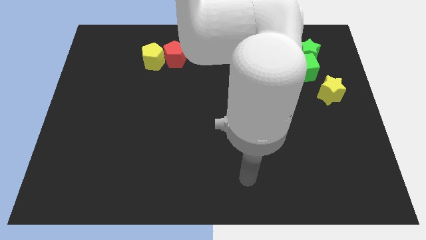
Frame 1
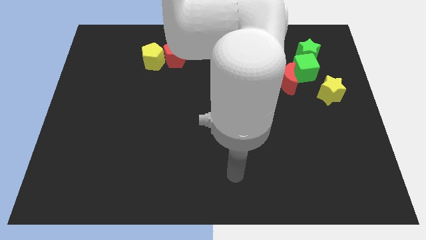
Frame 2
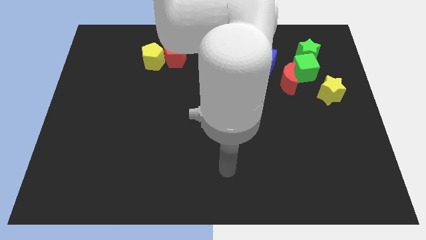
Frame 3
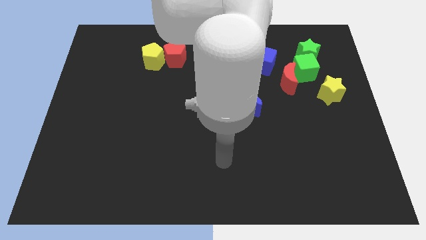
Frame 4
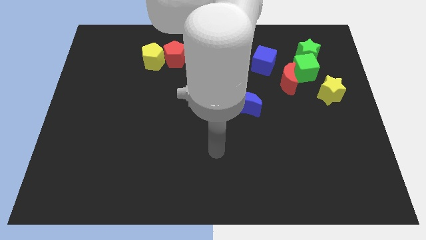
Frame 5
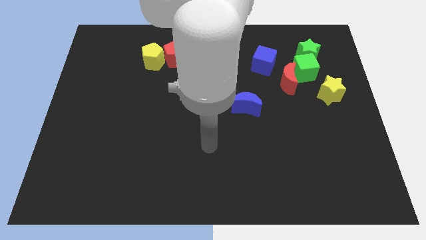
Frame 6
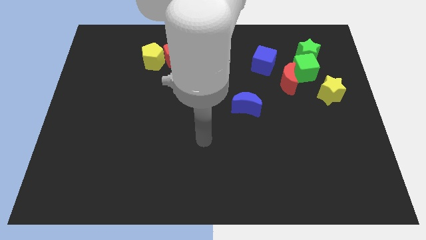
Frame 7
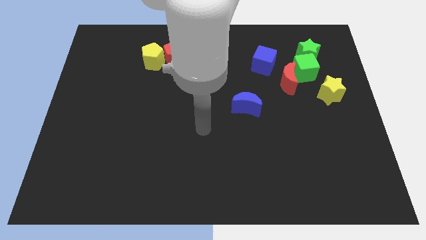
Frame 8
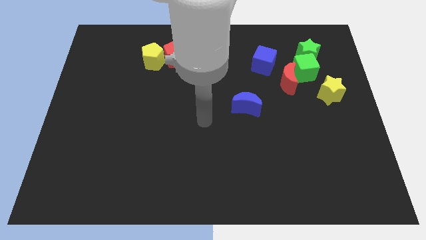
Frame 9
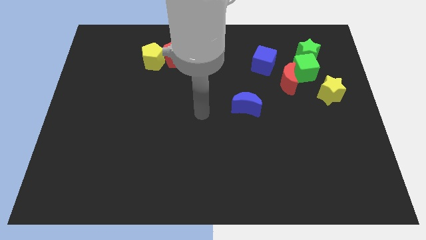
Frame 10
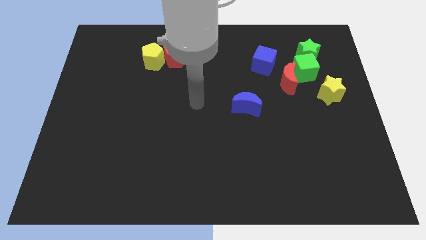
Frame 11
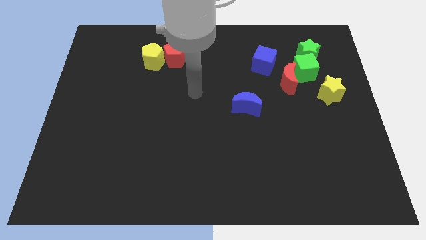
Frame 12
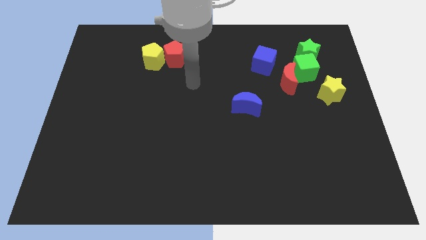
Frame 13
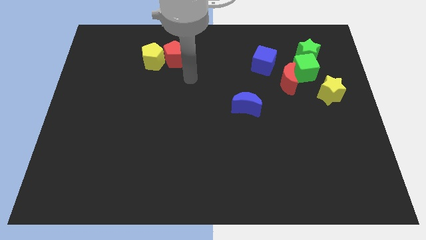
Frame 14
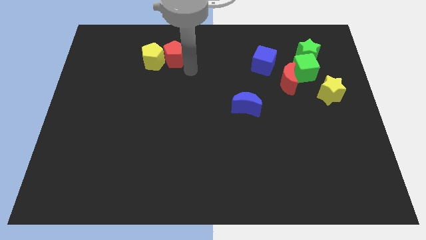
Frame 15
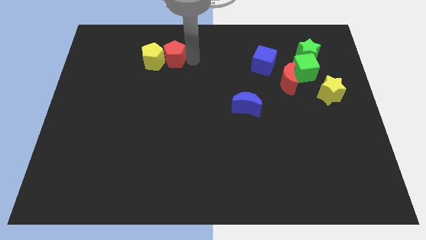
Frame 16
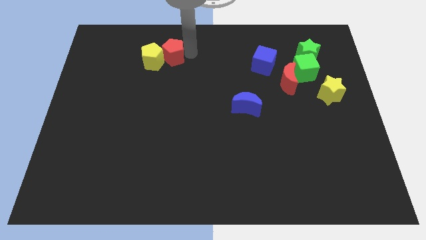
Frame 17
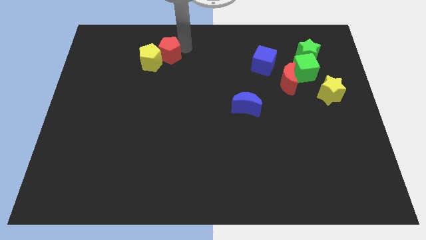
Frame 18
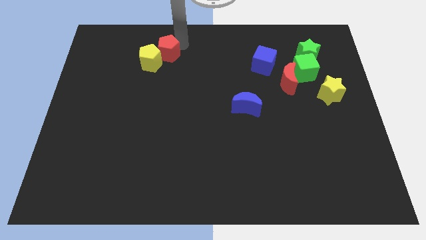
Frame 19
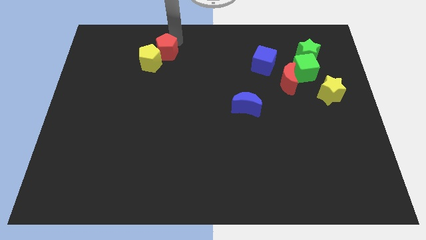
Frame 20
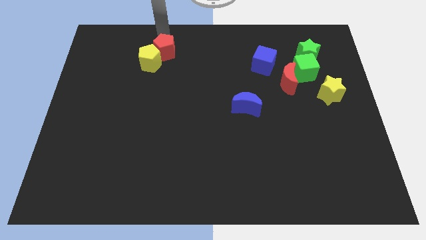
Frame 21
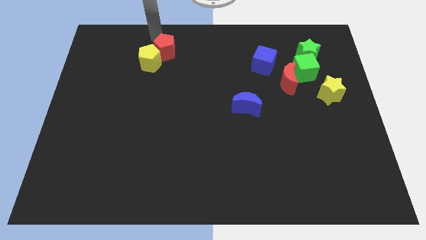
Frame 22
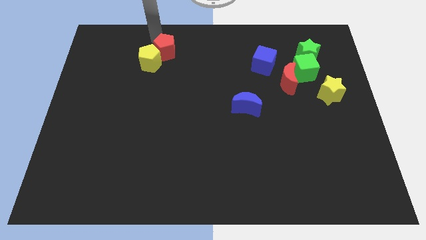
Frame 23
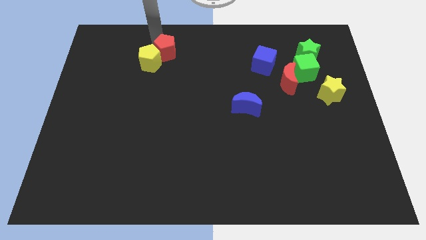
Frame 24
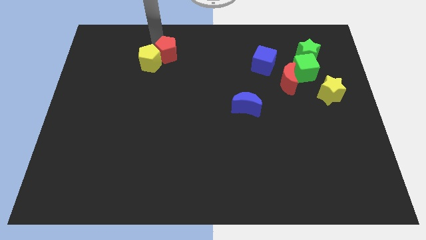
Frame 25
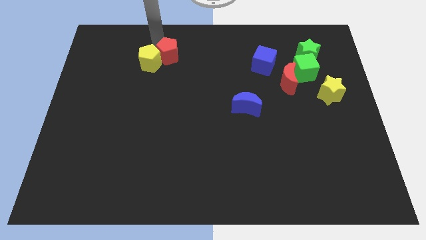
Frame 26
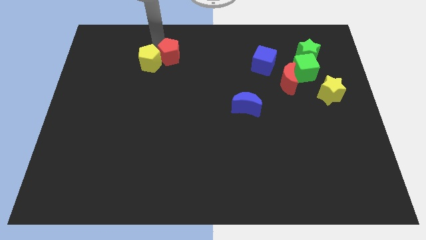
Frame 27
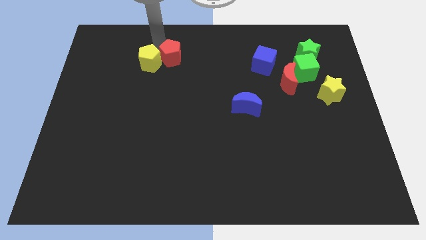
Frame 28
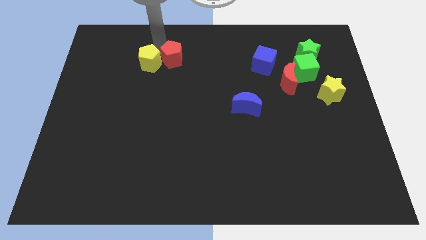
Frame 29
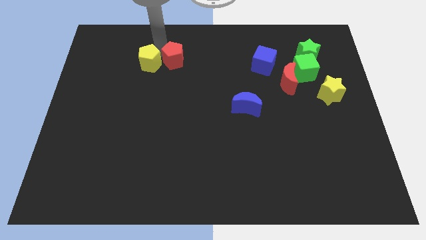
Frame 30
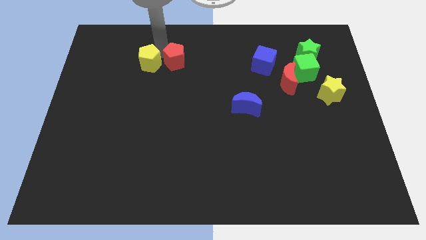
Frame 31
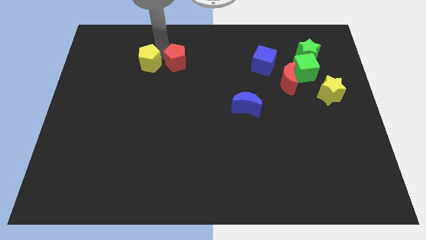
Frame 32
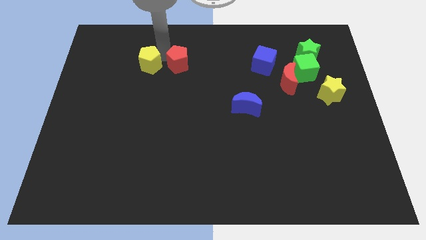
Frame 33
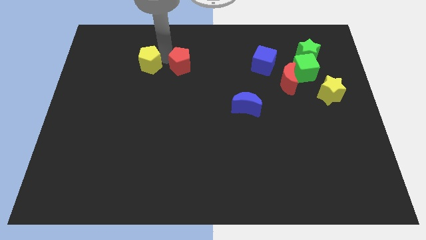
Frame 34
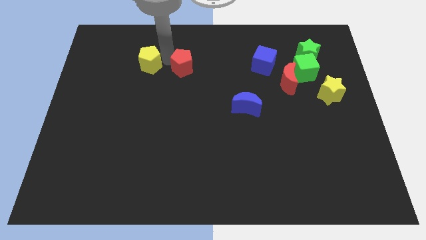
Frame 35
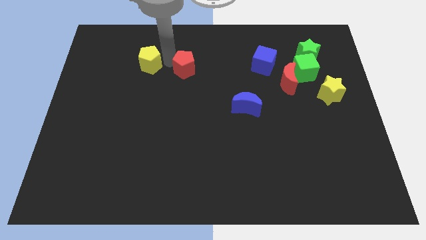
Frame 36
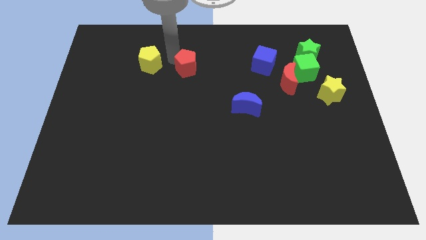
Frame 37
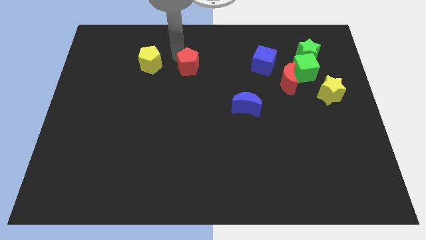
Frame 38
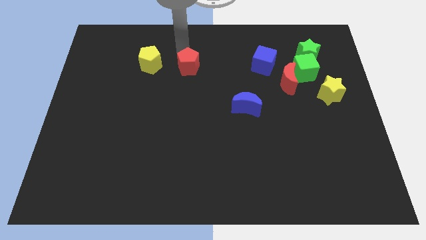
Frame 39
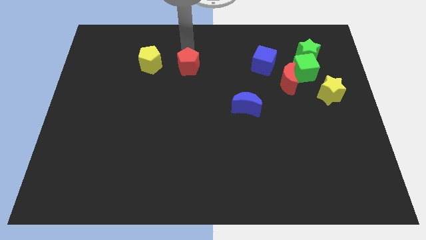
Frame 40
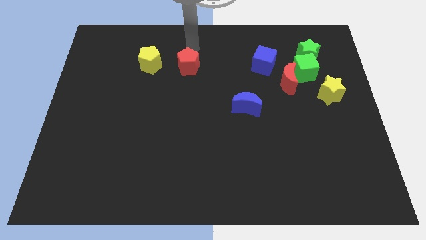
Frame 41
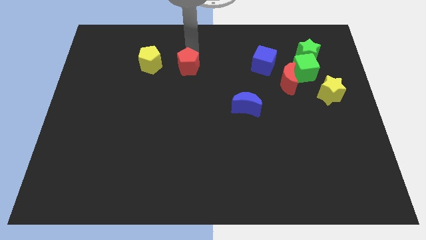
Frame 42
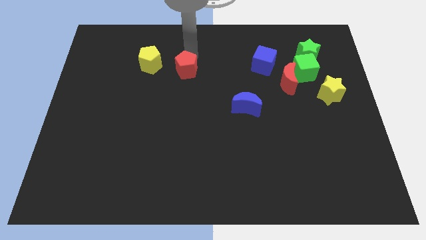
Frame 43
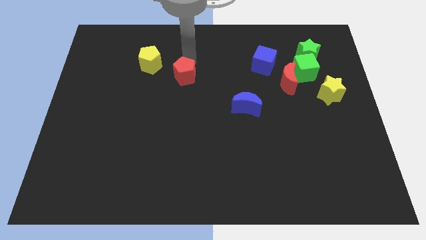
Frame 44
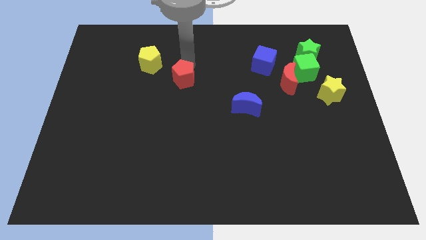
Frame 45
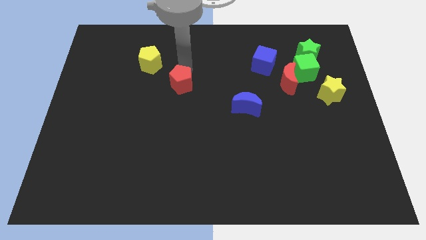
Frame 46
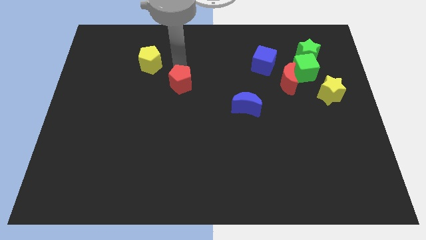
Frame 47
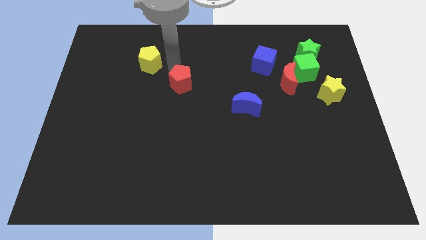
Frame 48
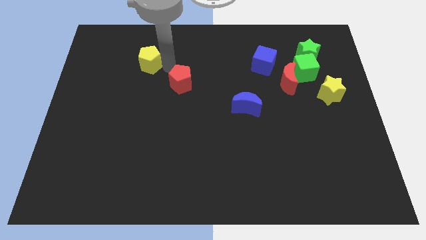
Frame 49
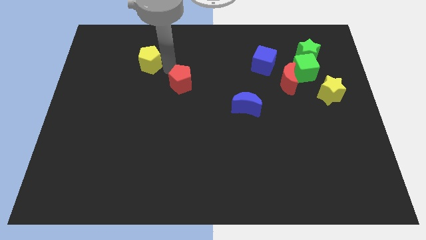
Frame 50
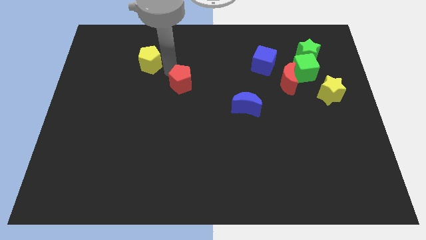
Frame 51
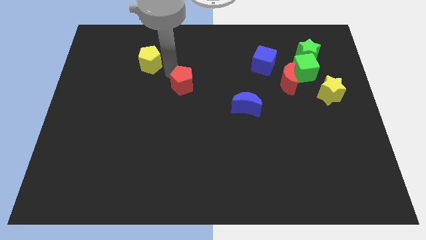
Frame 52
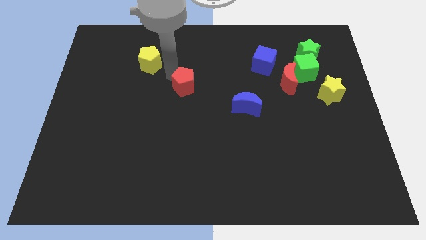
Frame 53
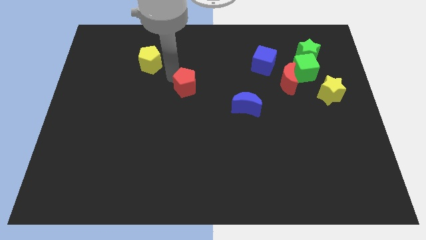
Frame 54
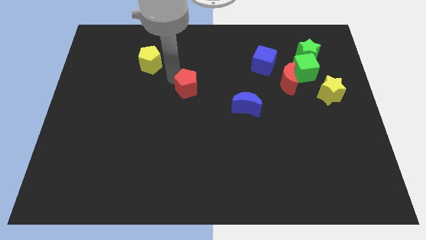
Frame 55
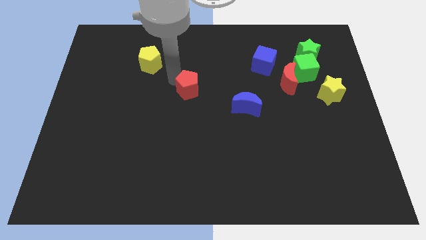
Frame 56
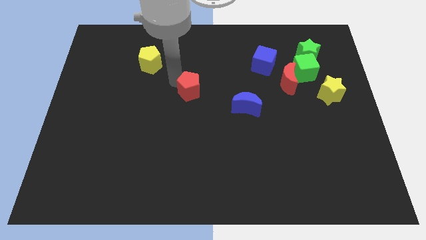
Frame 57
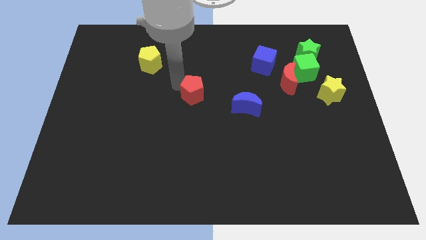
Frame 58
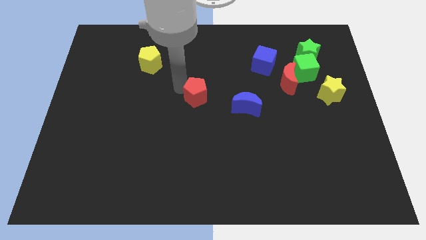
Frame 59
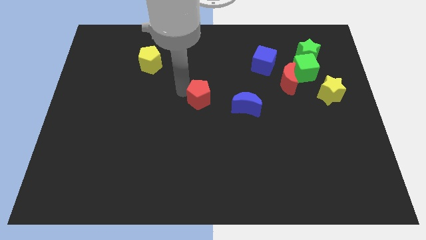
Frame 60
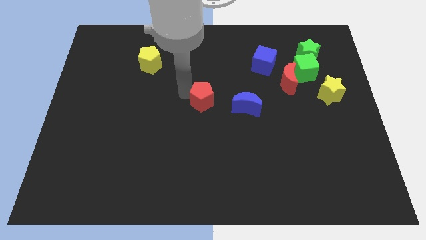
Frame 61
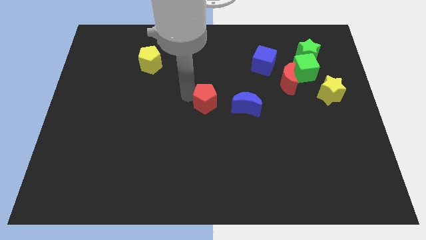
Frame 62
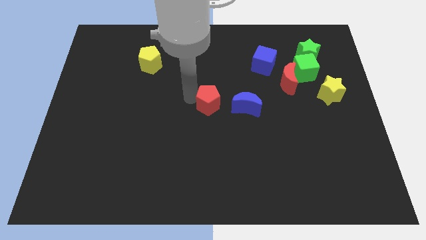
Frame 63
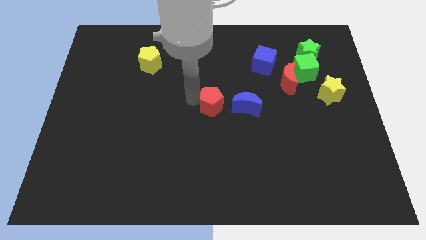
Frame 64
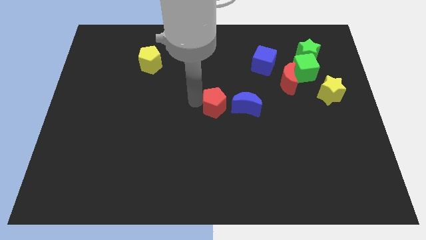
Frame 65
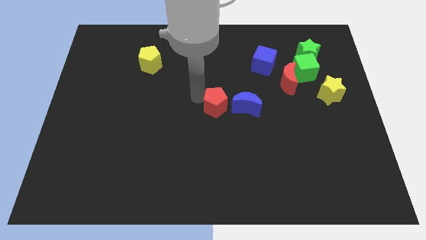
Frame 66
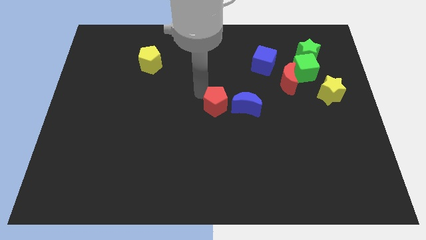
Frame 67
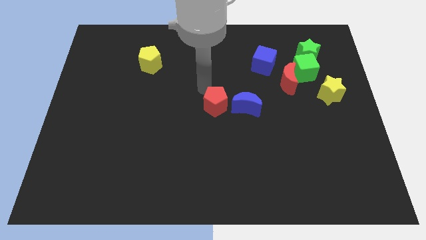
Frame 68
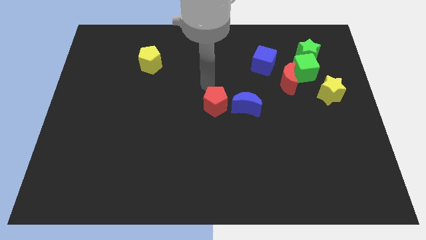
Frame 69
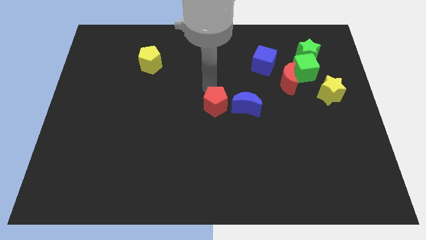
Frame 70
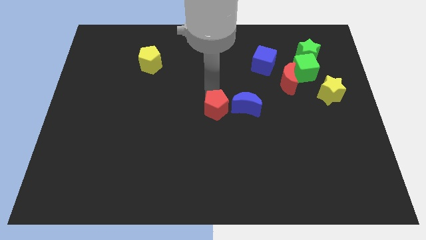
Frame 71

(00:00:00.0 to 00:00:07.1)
push the red pentagon to the bottom left side of the blue moon
